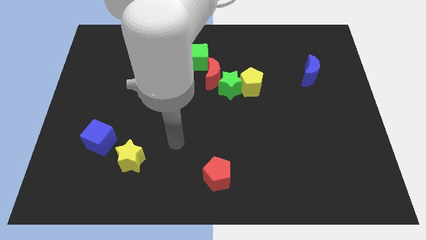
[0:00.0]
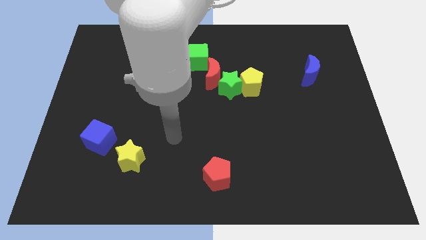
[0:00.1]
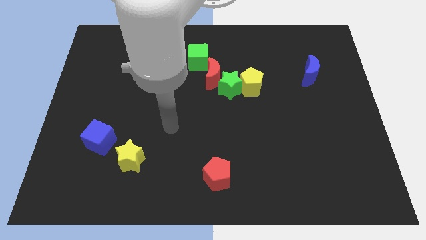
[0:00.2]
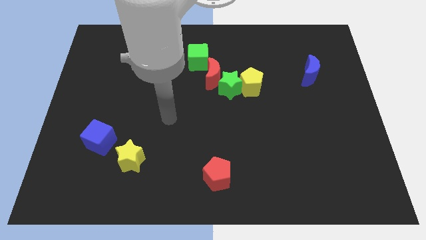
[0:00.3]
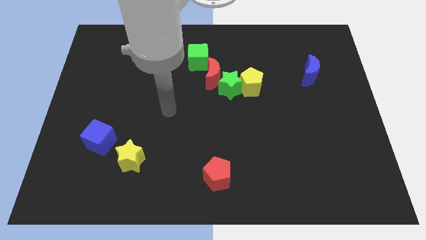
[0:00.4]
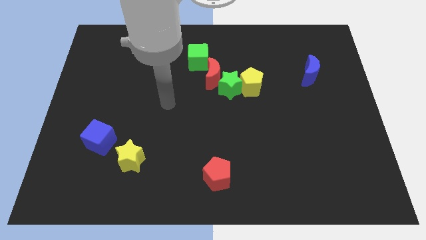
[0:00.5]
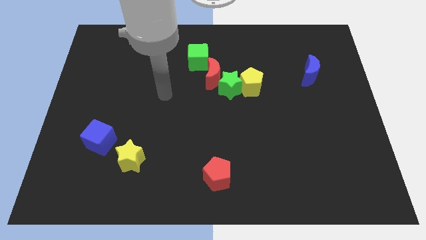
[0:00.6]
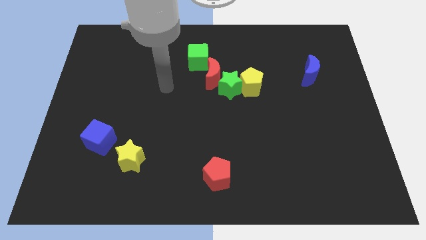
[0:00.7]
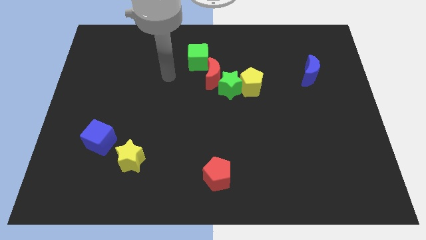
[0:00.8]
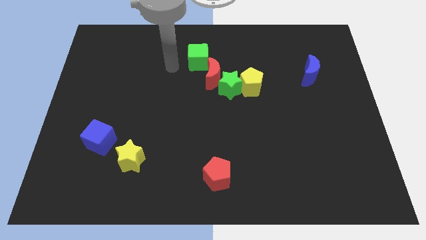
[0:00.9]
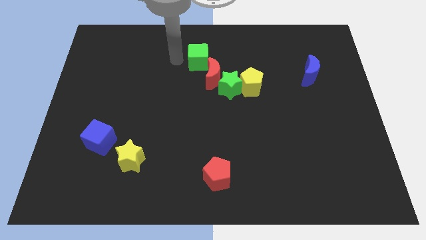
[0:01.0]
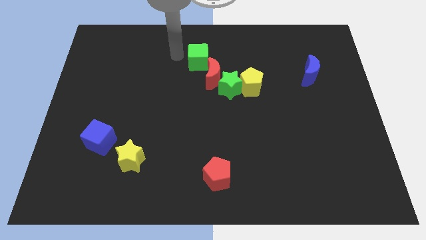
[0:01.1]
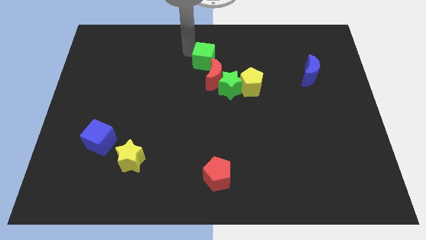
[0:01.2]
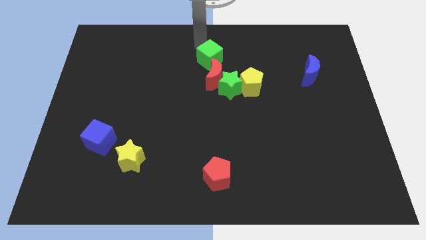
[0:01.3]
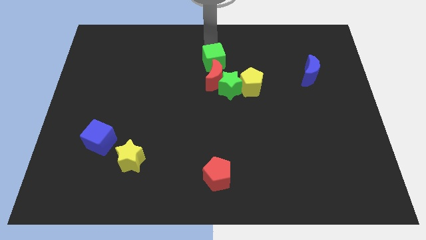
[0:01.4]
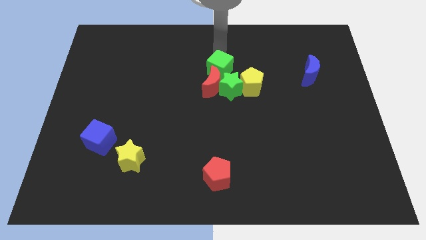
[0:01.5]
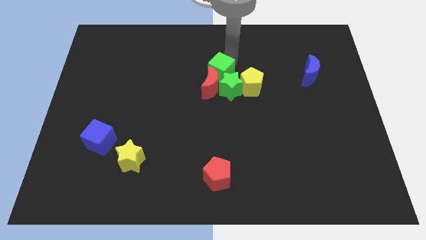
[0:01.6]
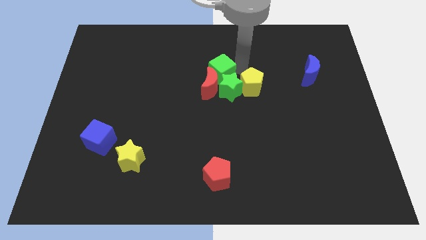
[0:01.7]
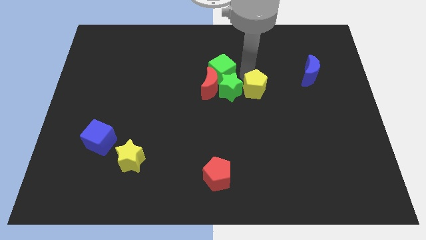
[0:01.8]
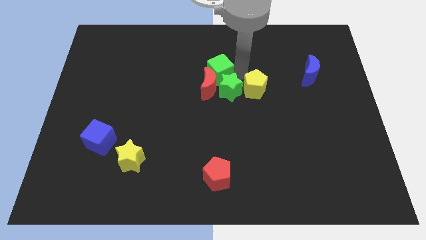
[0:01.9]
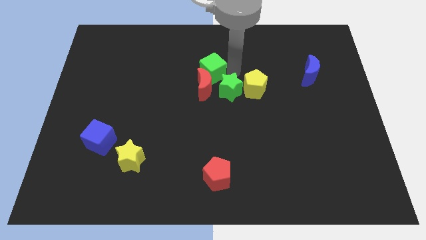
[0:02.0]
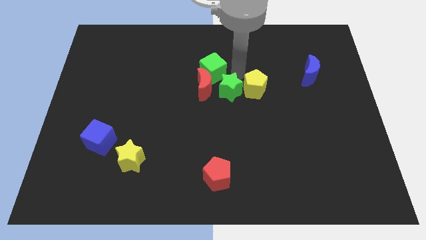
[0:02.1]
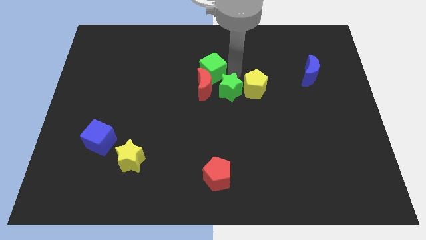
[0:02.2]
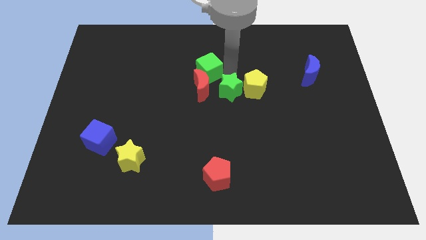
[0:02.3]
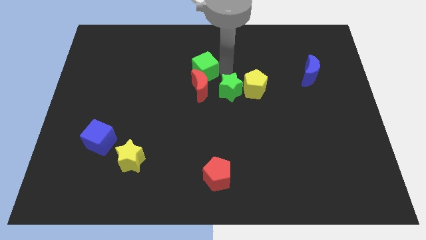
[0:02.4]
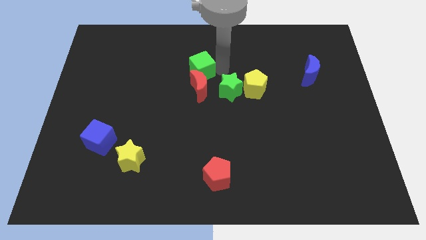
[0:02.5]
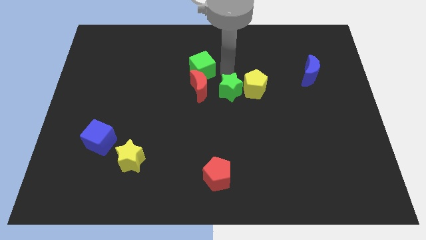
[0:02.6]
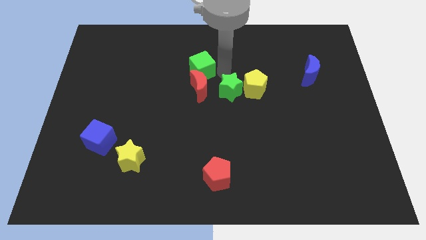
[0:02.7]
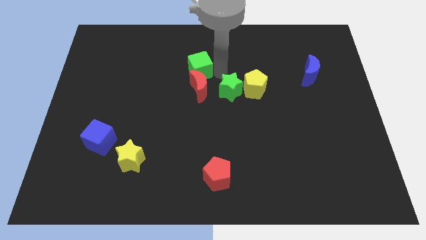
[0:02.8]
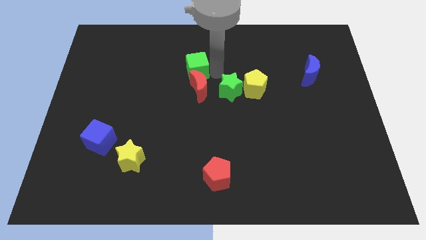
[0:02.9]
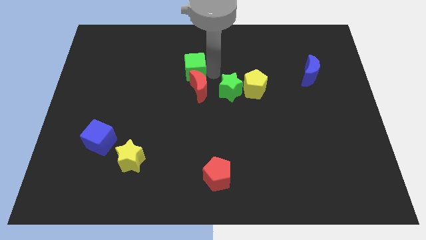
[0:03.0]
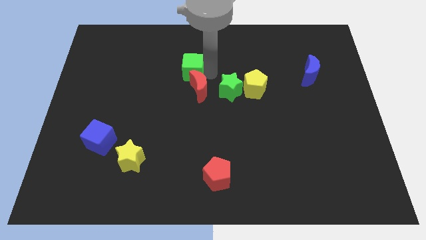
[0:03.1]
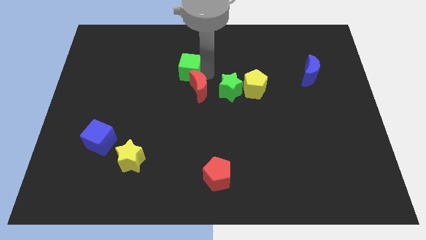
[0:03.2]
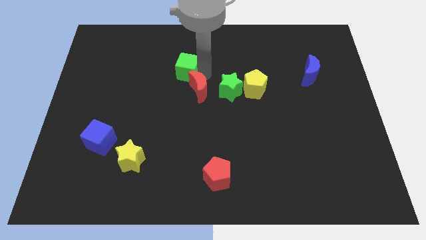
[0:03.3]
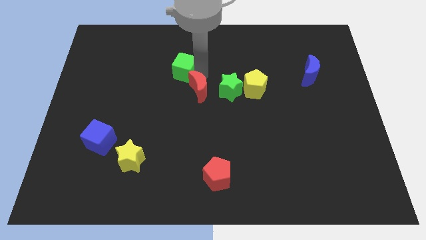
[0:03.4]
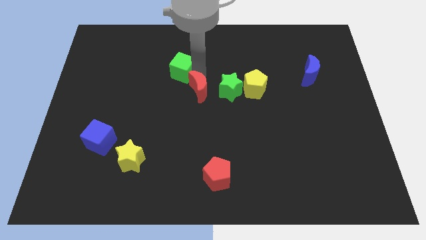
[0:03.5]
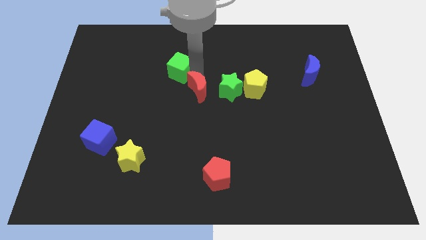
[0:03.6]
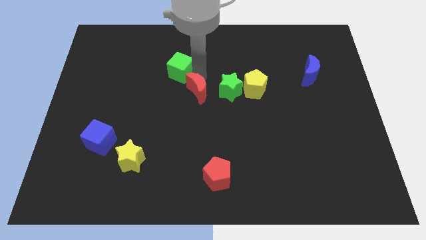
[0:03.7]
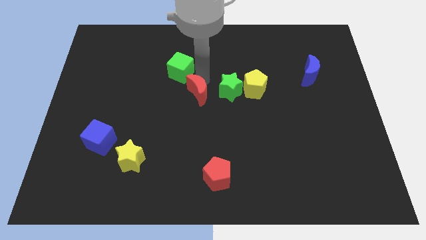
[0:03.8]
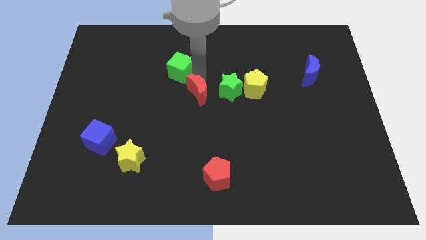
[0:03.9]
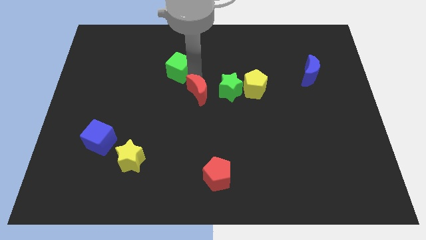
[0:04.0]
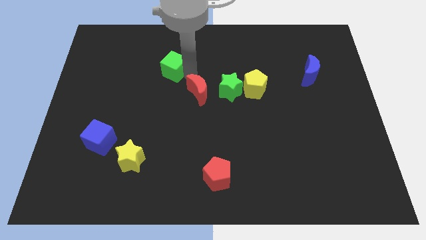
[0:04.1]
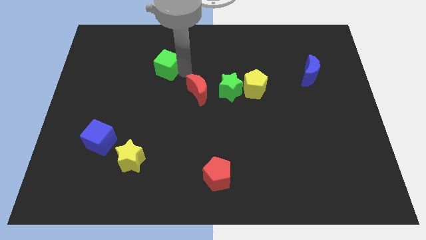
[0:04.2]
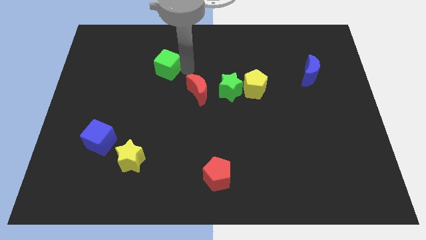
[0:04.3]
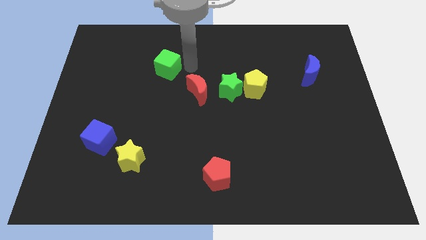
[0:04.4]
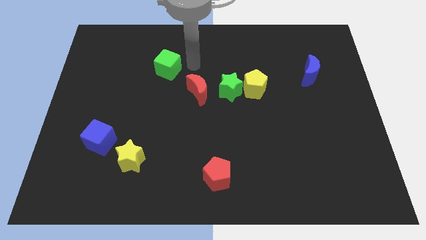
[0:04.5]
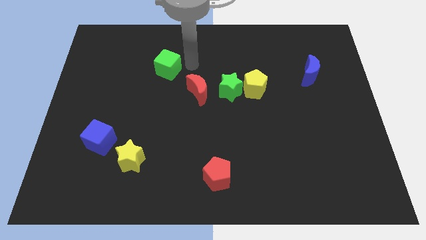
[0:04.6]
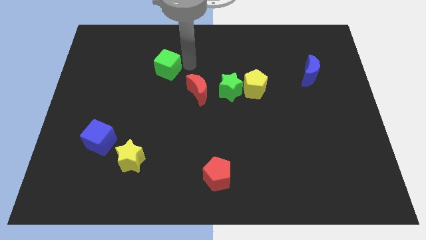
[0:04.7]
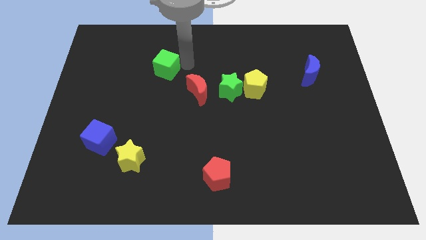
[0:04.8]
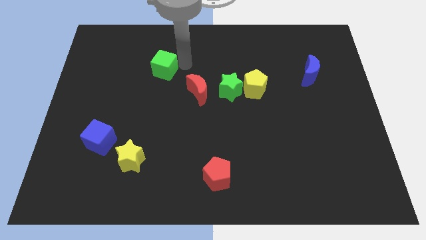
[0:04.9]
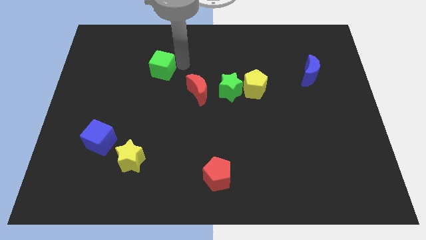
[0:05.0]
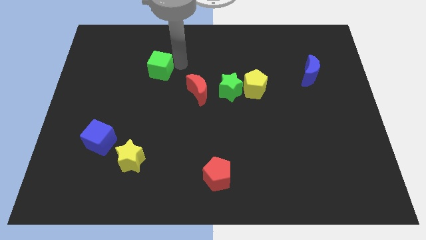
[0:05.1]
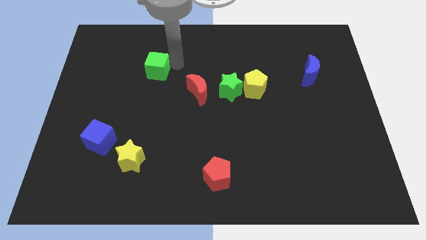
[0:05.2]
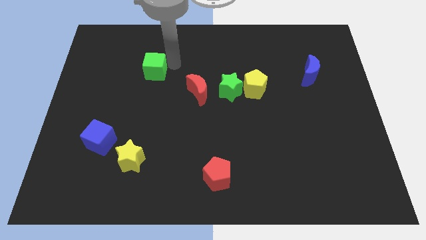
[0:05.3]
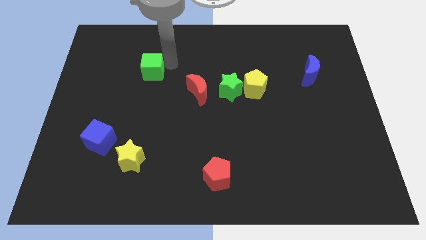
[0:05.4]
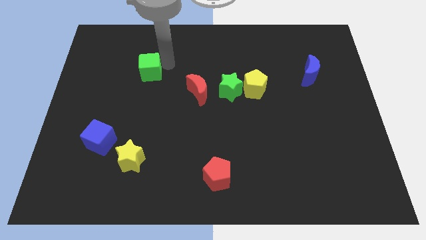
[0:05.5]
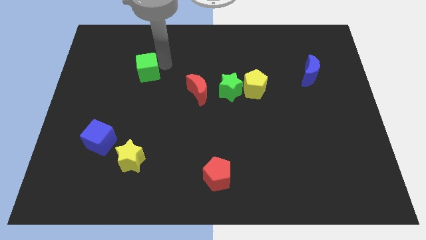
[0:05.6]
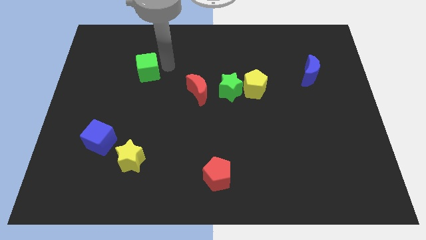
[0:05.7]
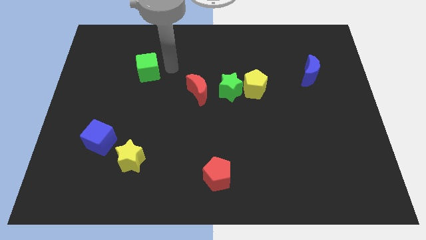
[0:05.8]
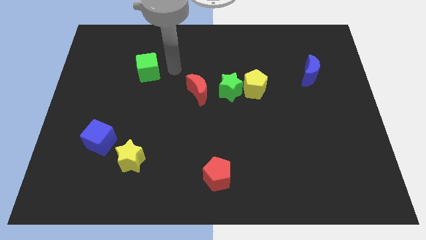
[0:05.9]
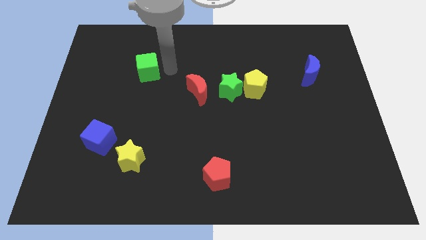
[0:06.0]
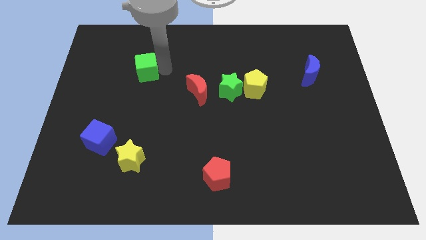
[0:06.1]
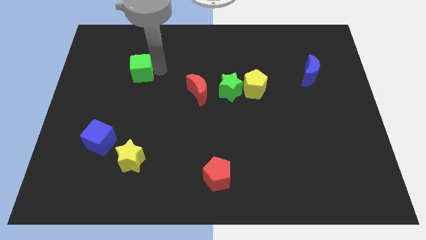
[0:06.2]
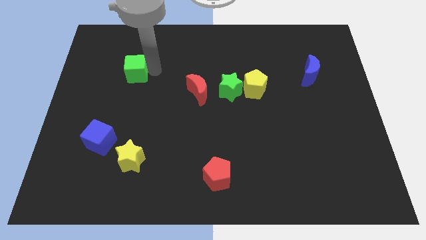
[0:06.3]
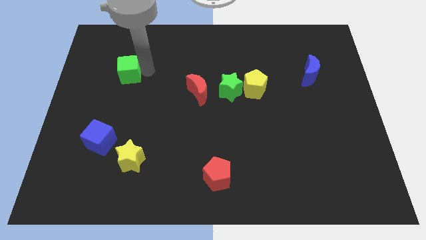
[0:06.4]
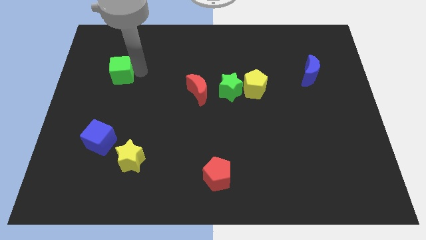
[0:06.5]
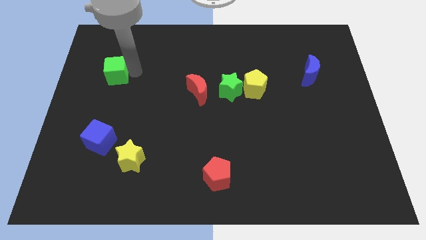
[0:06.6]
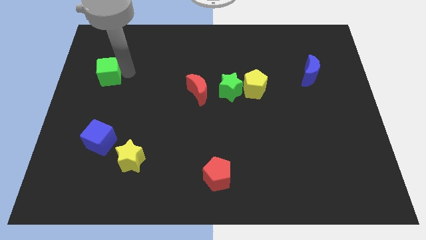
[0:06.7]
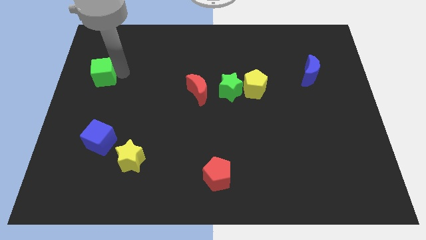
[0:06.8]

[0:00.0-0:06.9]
slide the green cube to the center left

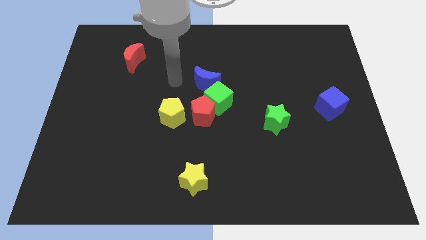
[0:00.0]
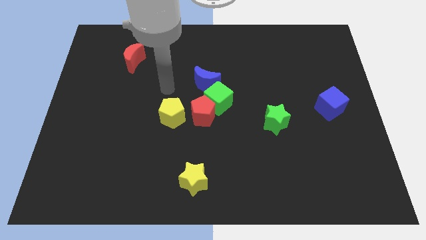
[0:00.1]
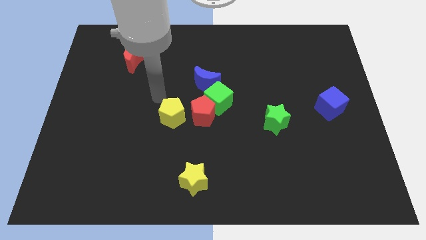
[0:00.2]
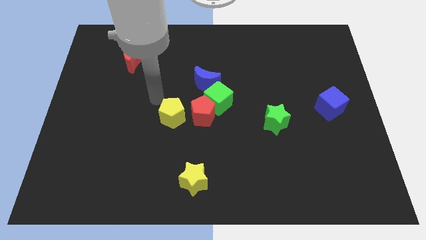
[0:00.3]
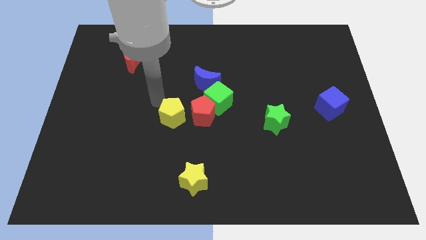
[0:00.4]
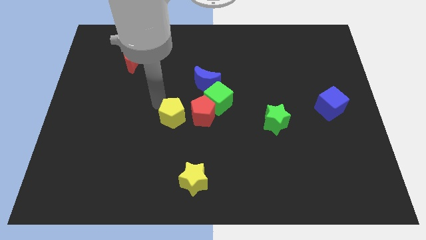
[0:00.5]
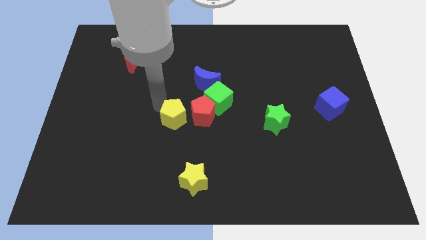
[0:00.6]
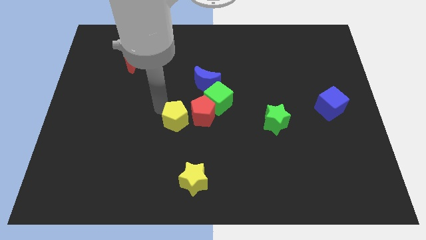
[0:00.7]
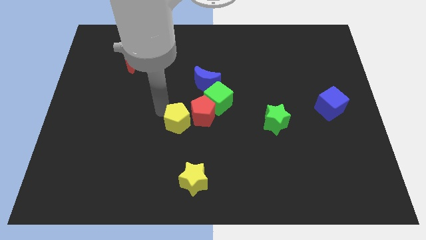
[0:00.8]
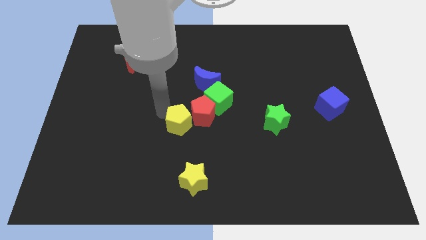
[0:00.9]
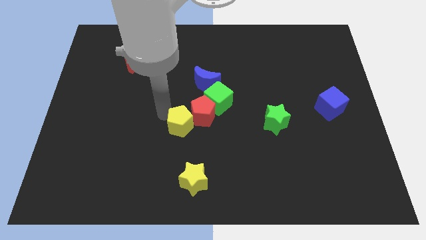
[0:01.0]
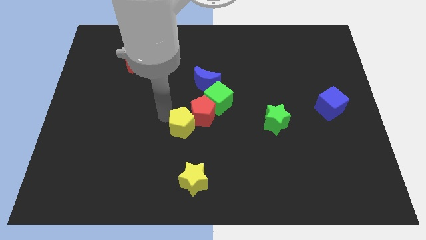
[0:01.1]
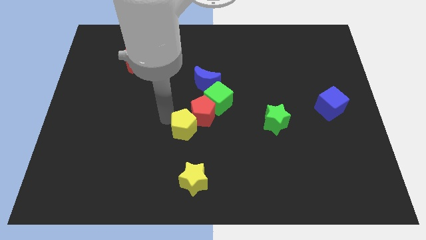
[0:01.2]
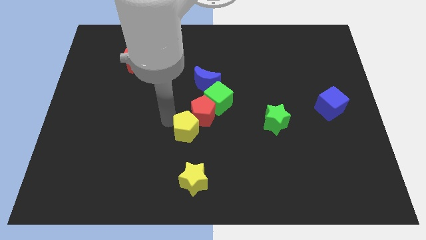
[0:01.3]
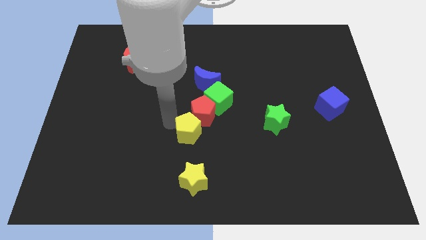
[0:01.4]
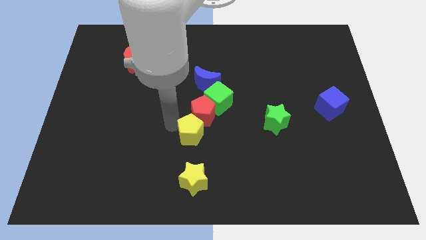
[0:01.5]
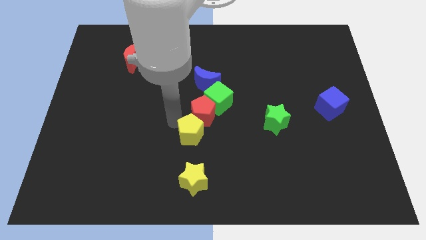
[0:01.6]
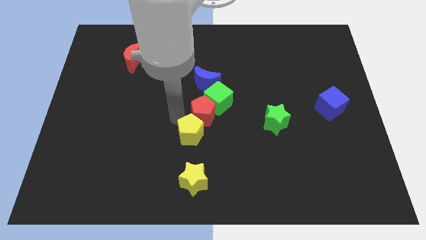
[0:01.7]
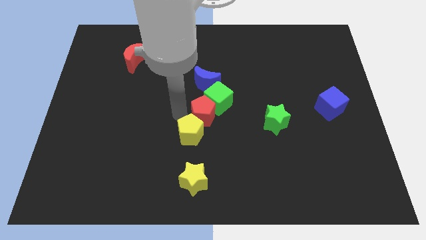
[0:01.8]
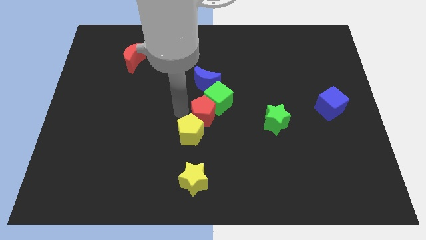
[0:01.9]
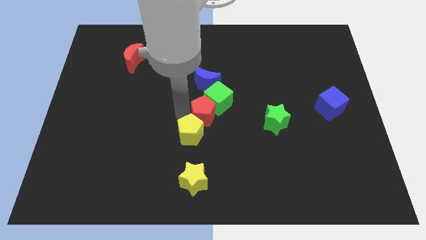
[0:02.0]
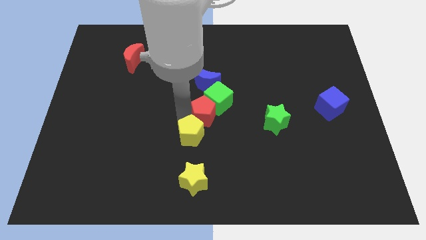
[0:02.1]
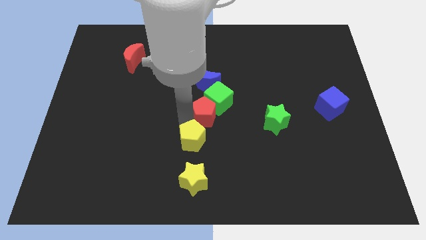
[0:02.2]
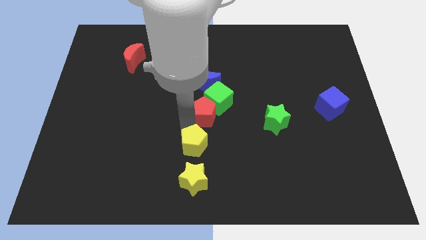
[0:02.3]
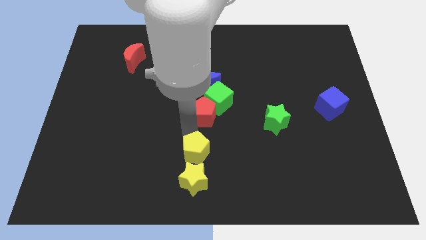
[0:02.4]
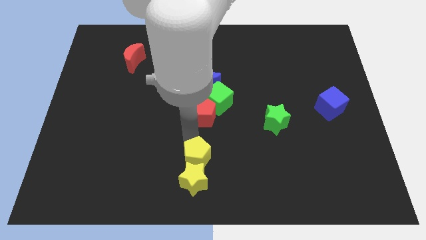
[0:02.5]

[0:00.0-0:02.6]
push the yellow pentagon to the bottom side
